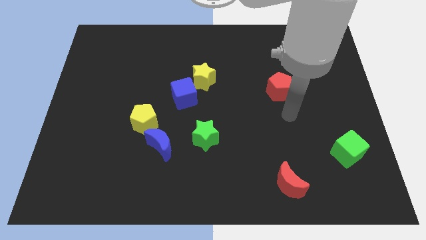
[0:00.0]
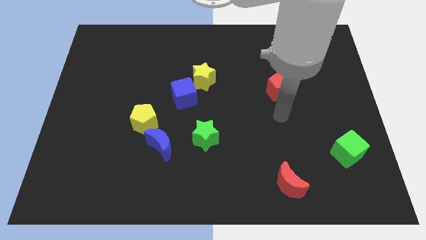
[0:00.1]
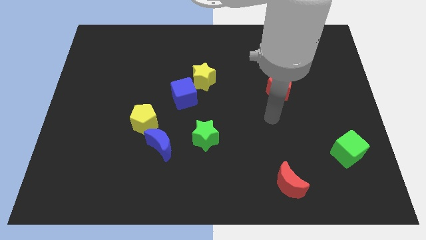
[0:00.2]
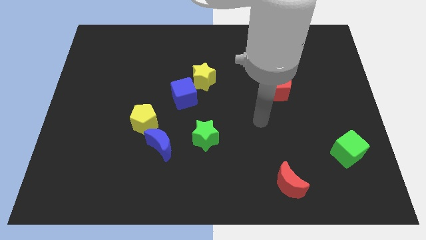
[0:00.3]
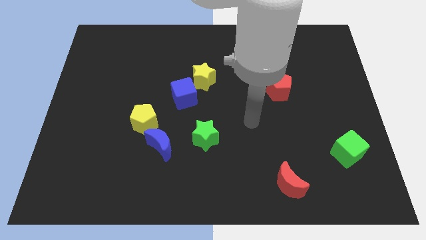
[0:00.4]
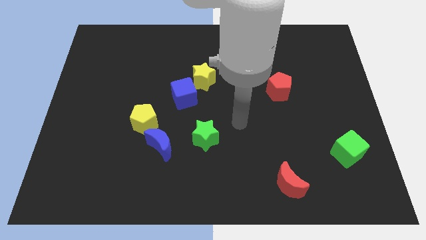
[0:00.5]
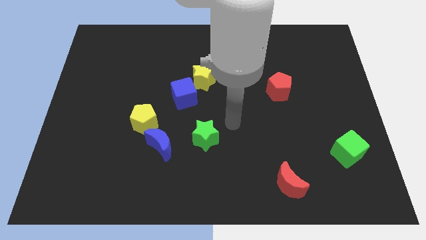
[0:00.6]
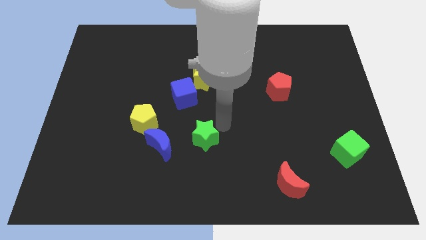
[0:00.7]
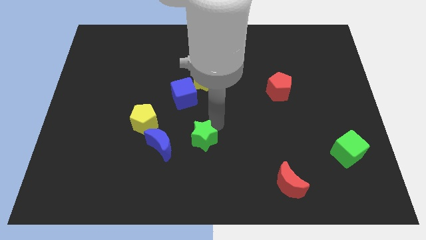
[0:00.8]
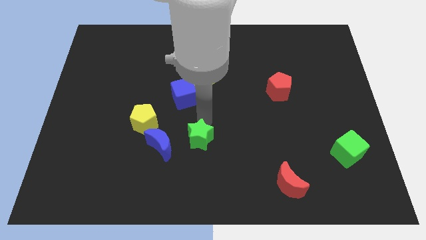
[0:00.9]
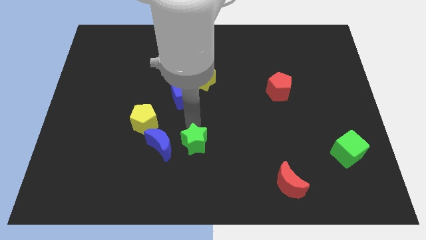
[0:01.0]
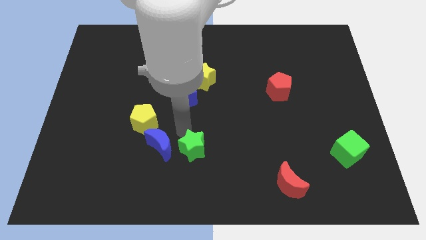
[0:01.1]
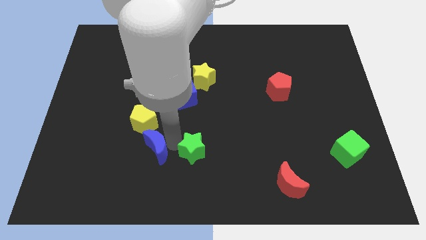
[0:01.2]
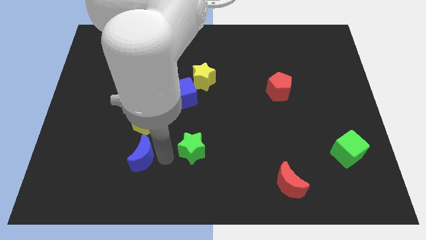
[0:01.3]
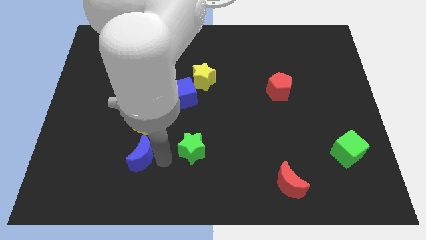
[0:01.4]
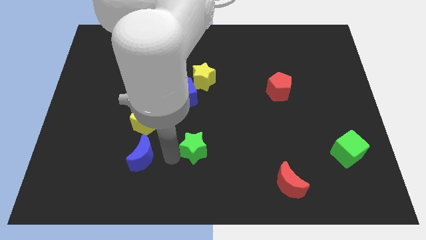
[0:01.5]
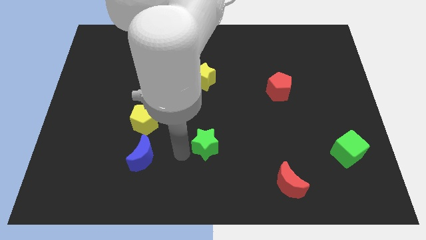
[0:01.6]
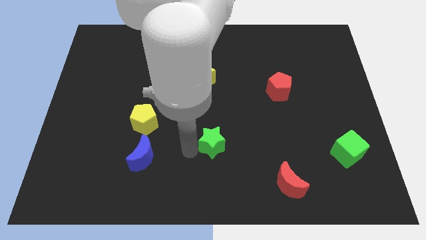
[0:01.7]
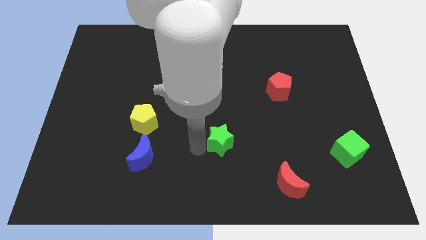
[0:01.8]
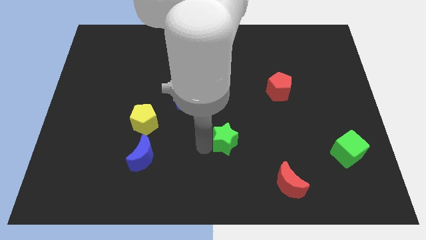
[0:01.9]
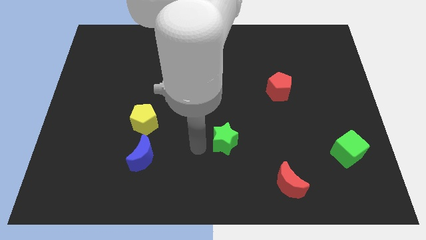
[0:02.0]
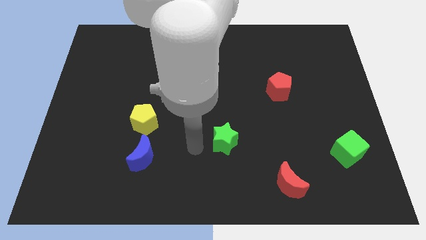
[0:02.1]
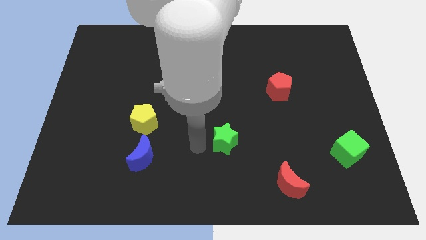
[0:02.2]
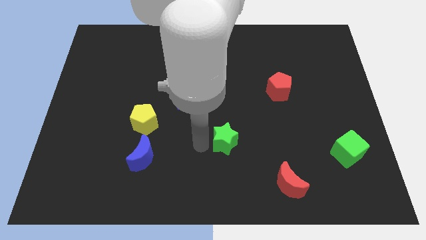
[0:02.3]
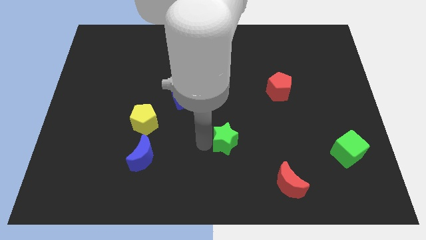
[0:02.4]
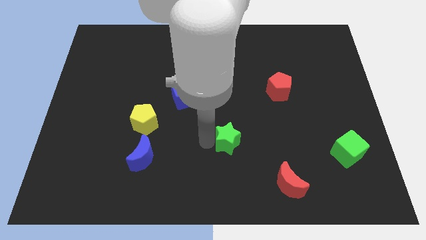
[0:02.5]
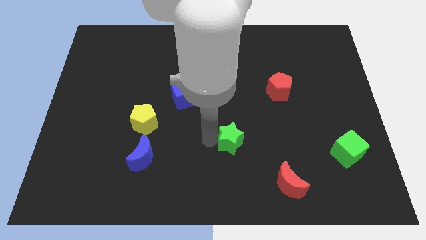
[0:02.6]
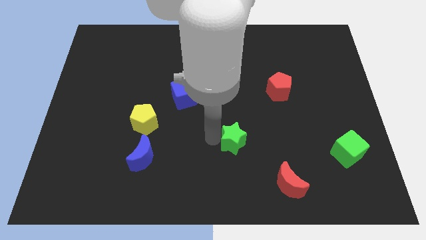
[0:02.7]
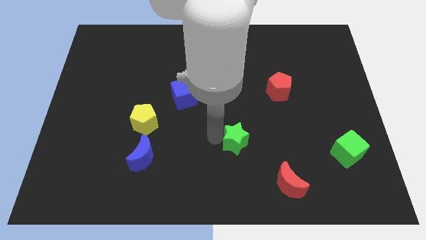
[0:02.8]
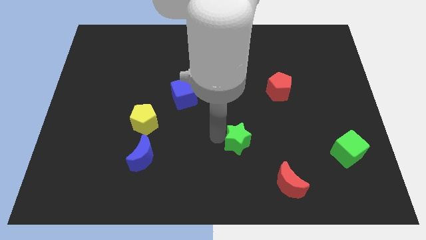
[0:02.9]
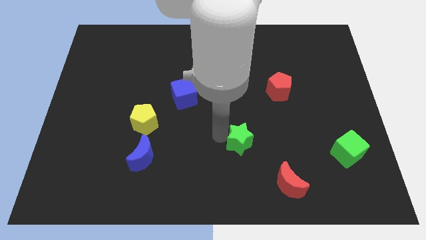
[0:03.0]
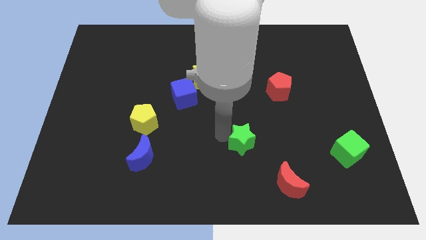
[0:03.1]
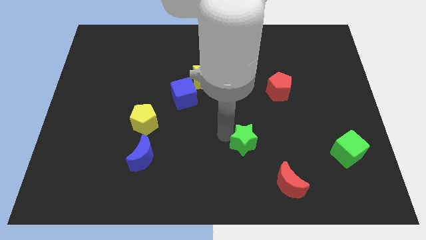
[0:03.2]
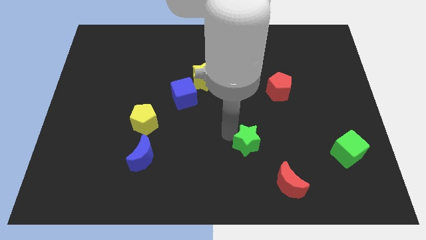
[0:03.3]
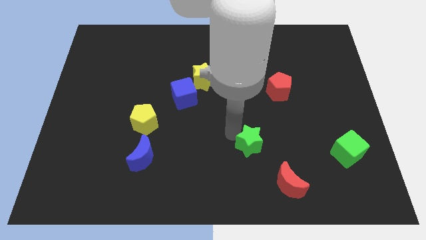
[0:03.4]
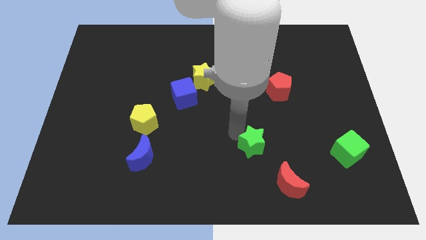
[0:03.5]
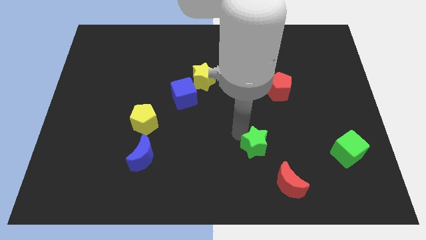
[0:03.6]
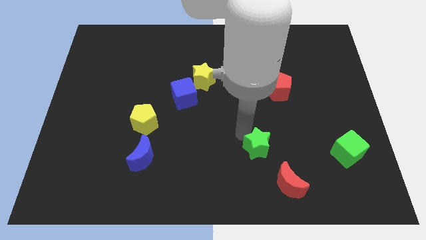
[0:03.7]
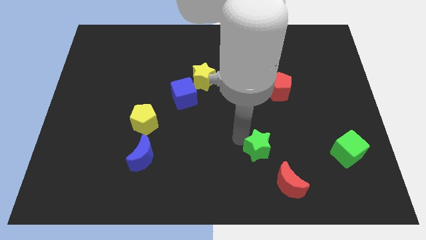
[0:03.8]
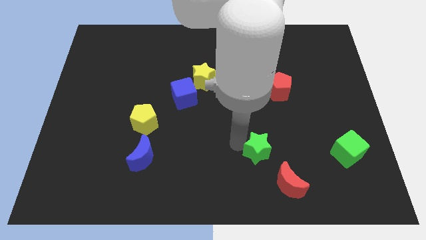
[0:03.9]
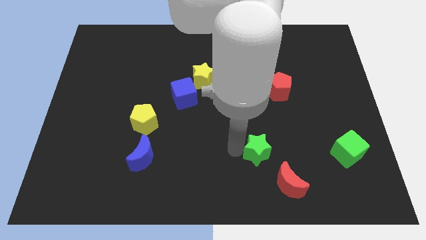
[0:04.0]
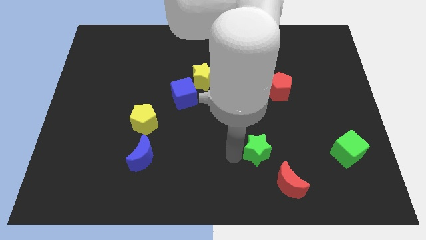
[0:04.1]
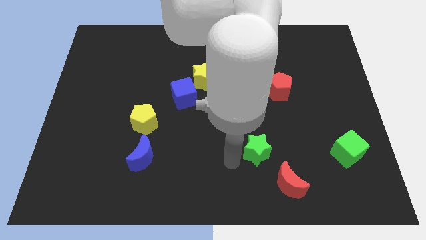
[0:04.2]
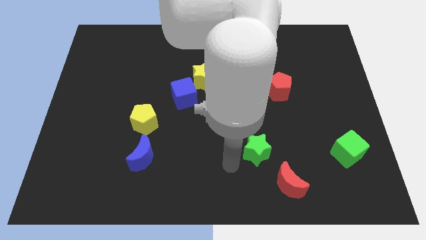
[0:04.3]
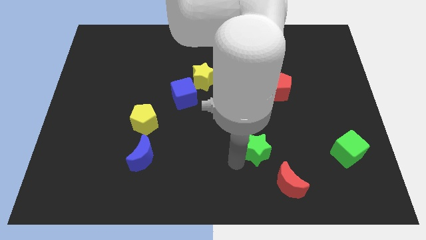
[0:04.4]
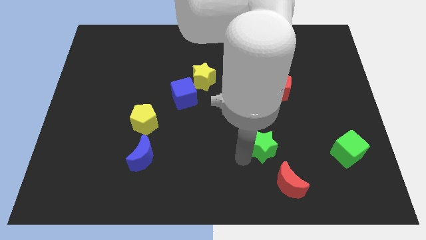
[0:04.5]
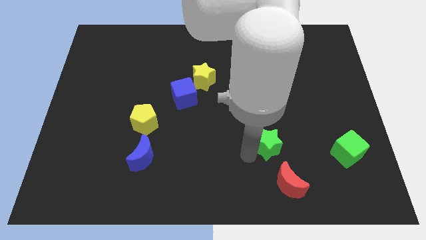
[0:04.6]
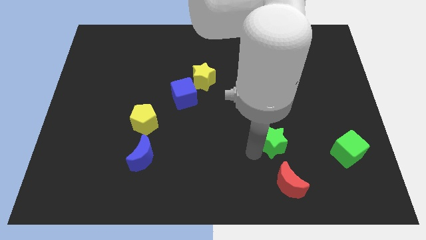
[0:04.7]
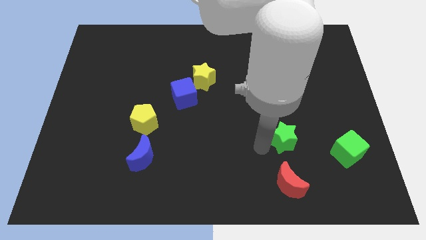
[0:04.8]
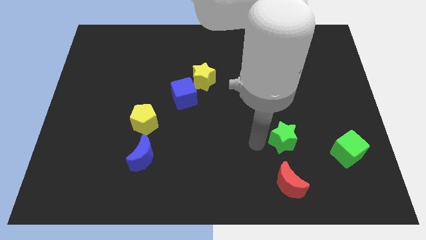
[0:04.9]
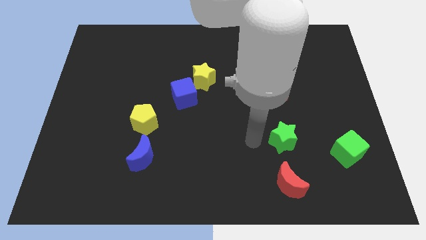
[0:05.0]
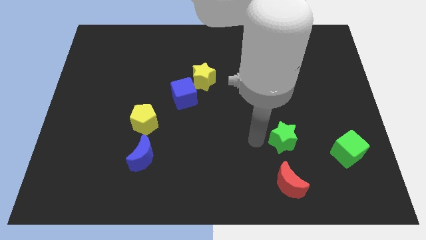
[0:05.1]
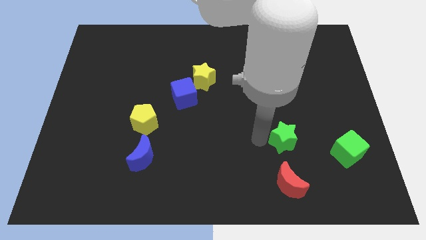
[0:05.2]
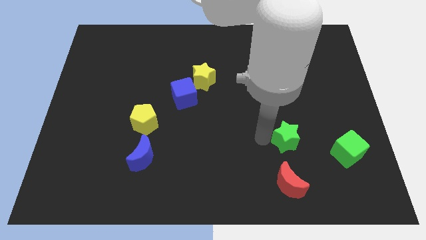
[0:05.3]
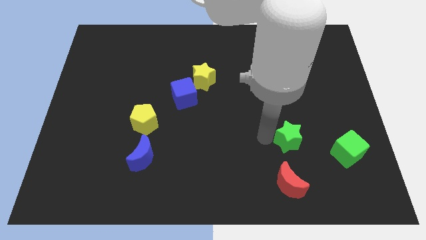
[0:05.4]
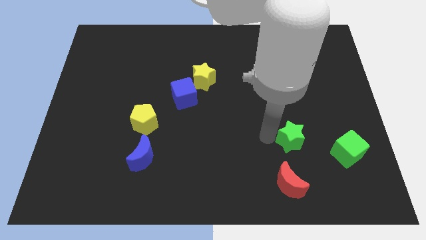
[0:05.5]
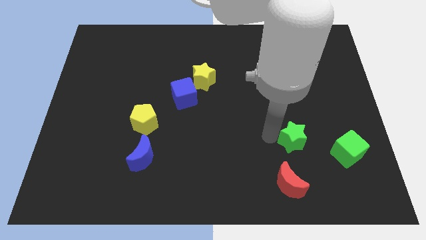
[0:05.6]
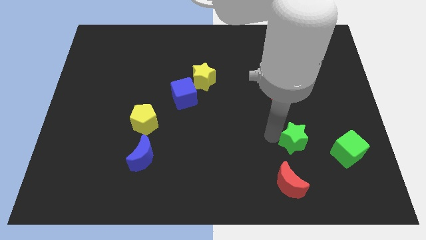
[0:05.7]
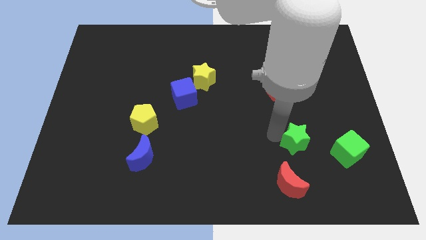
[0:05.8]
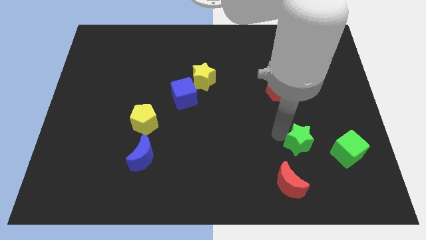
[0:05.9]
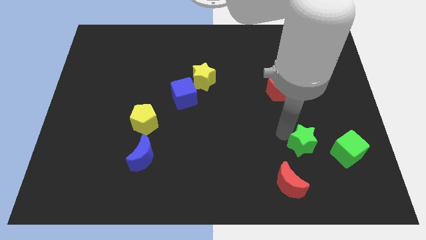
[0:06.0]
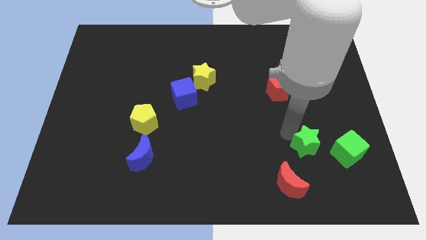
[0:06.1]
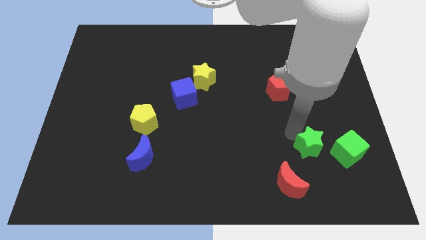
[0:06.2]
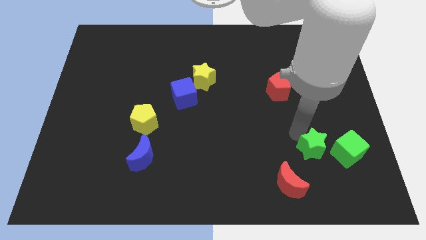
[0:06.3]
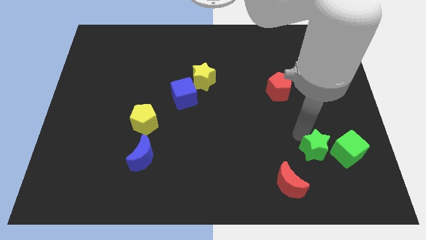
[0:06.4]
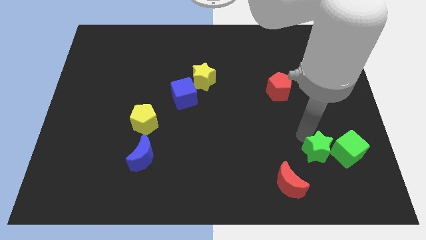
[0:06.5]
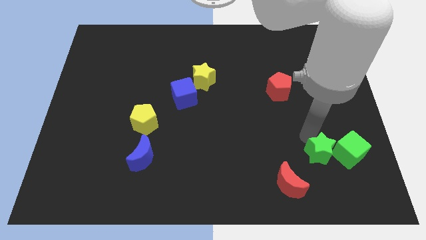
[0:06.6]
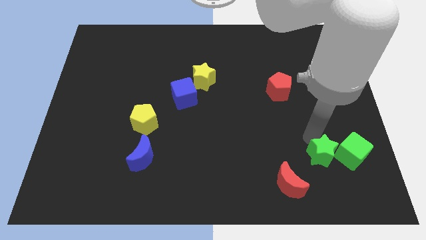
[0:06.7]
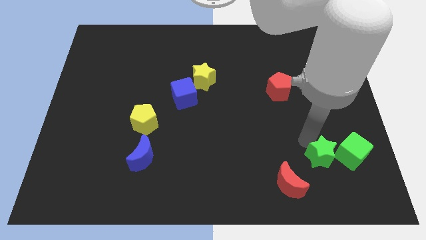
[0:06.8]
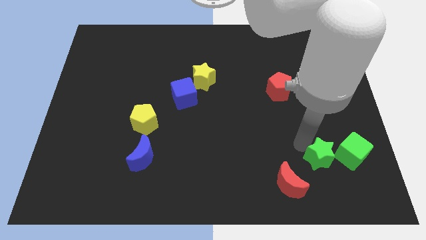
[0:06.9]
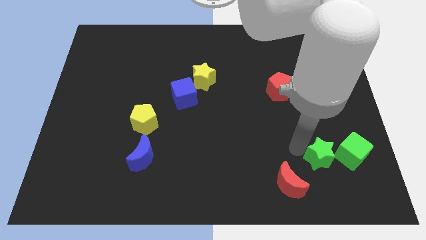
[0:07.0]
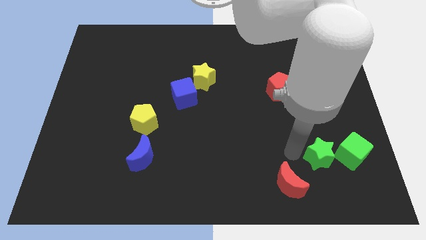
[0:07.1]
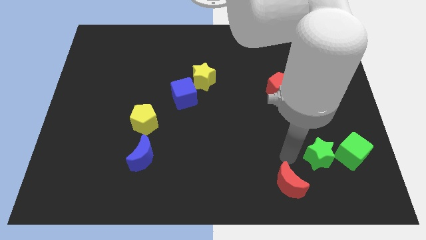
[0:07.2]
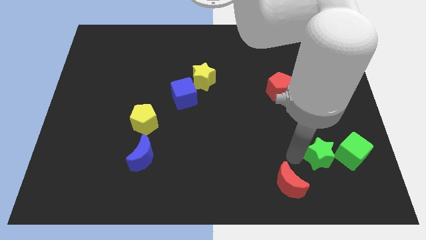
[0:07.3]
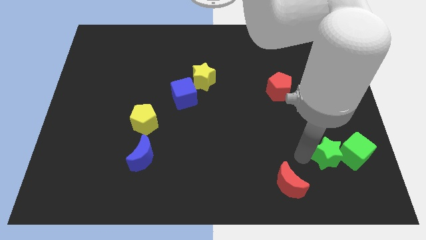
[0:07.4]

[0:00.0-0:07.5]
push the green star close to the green cube
